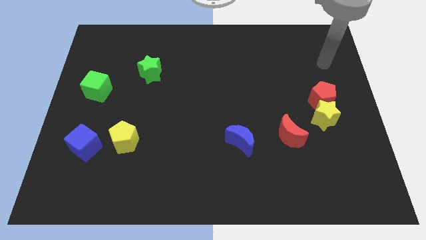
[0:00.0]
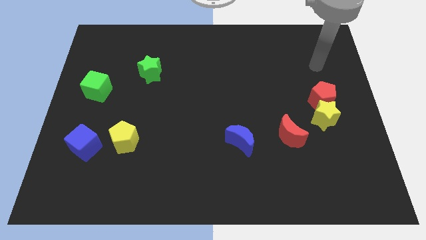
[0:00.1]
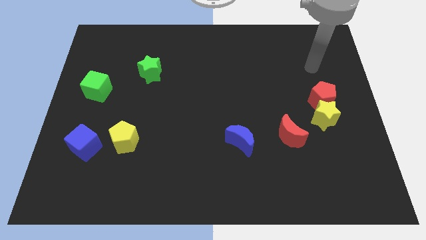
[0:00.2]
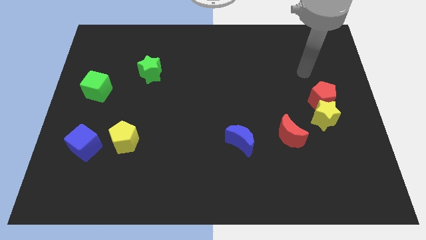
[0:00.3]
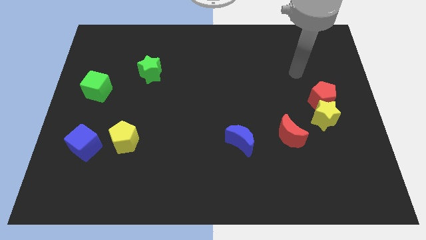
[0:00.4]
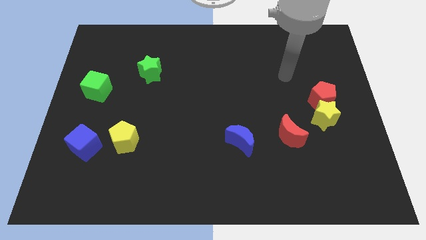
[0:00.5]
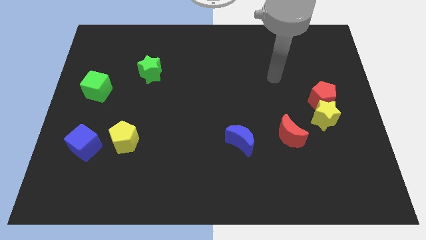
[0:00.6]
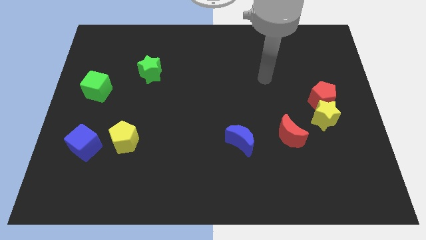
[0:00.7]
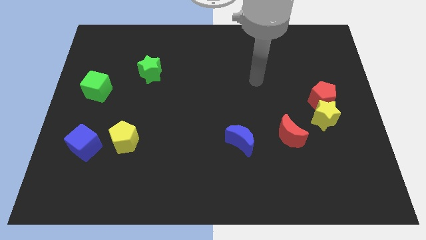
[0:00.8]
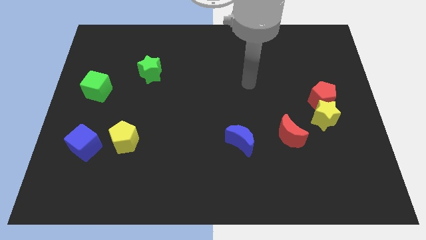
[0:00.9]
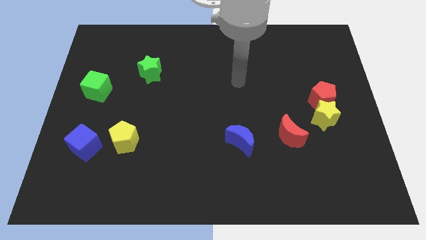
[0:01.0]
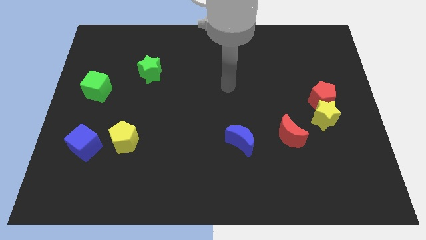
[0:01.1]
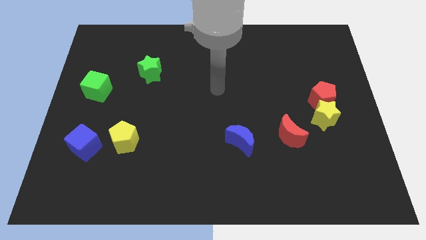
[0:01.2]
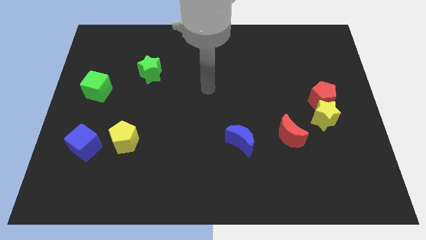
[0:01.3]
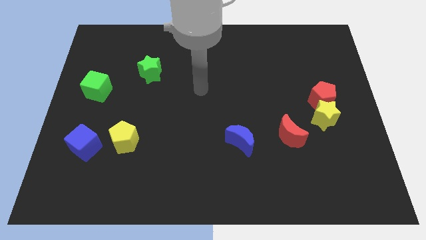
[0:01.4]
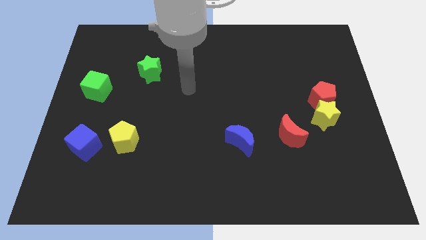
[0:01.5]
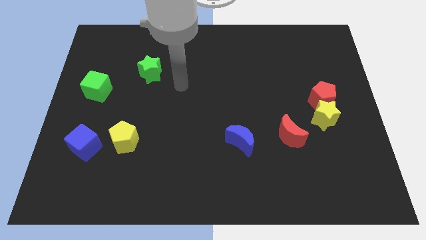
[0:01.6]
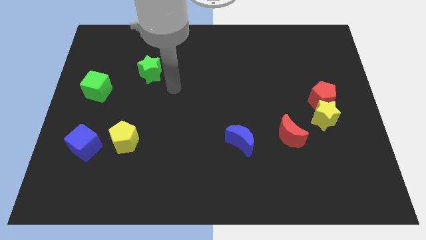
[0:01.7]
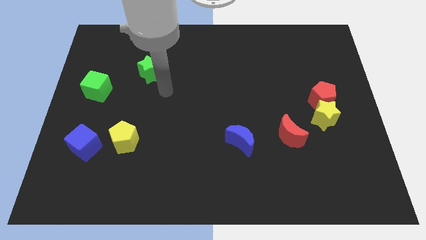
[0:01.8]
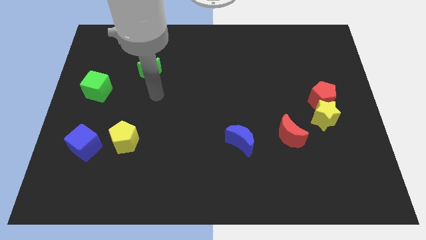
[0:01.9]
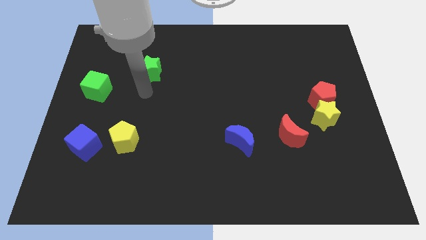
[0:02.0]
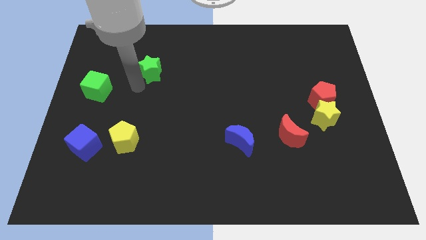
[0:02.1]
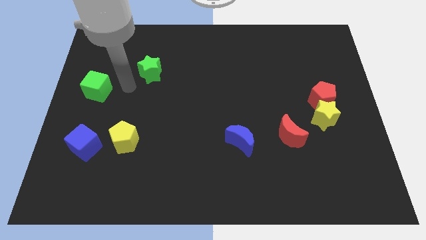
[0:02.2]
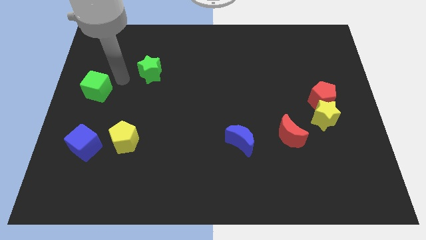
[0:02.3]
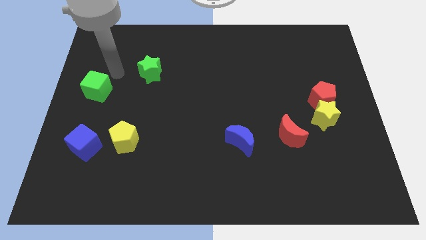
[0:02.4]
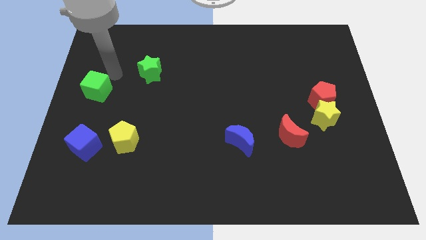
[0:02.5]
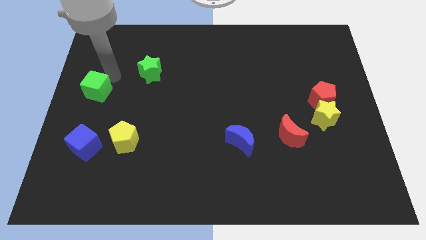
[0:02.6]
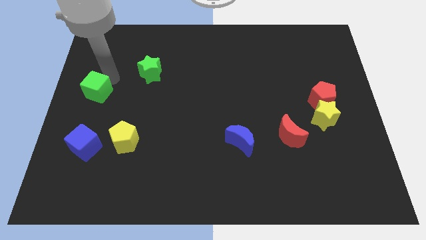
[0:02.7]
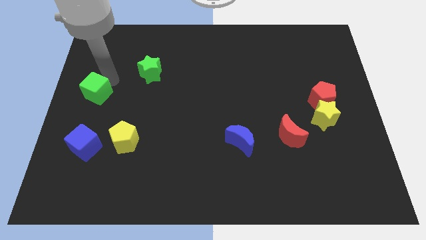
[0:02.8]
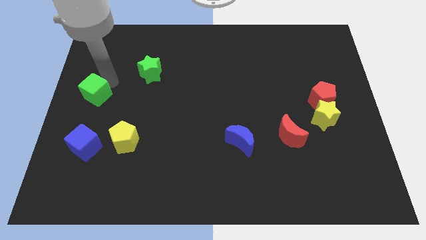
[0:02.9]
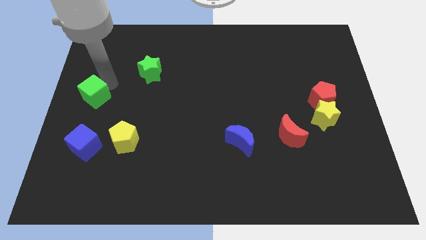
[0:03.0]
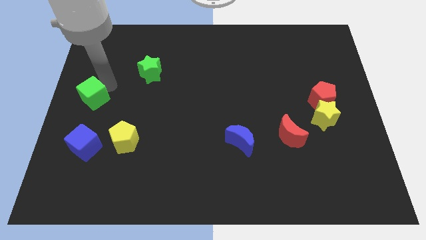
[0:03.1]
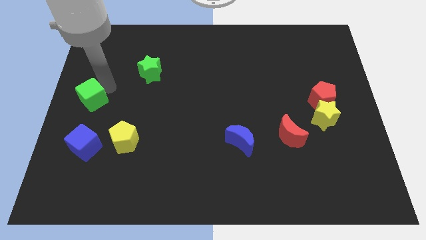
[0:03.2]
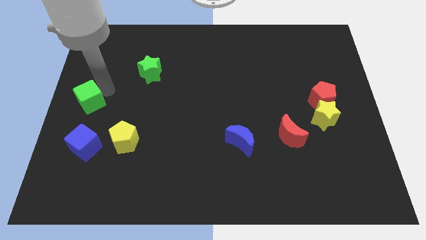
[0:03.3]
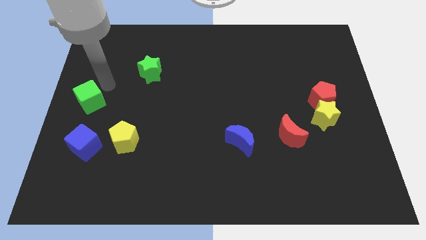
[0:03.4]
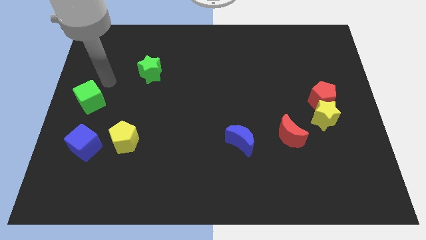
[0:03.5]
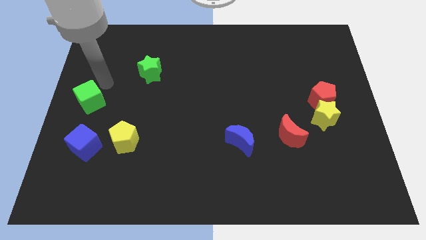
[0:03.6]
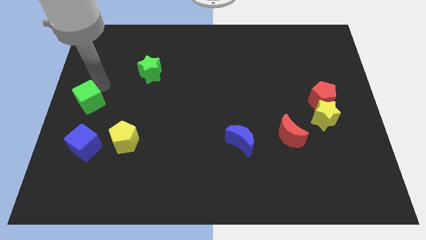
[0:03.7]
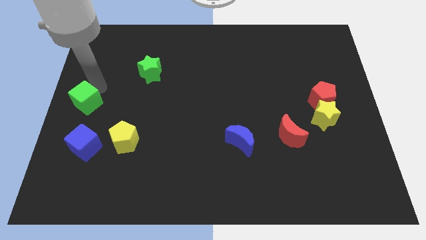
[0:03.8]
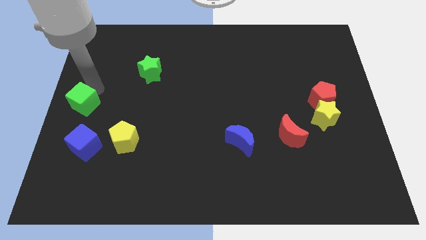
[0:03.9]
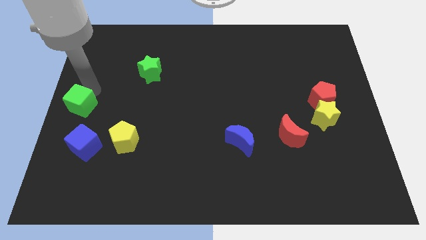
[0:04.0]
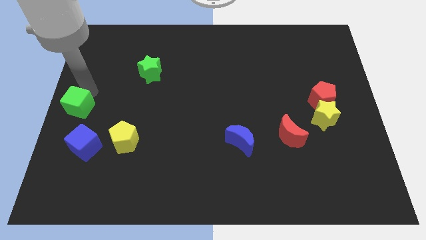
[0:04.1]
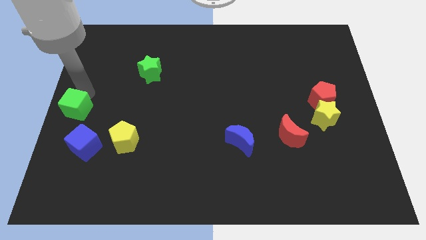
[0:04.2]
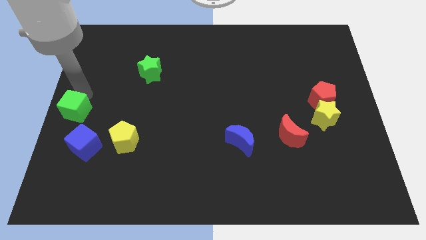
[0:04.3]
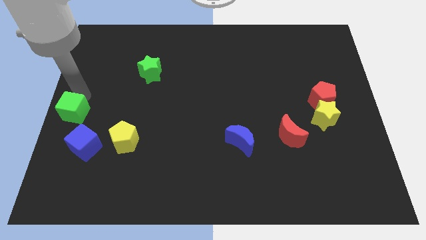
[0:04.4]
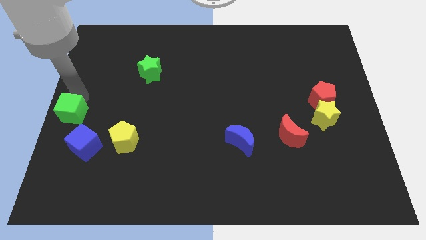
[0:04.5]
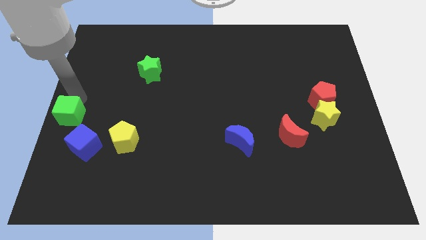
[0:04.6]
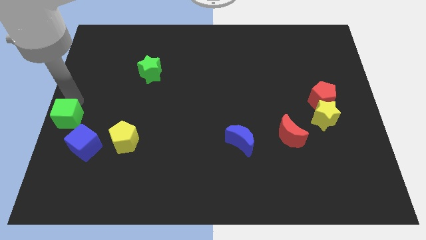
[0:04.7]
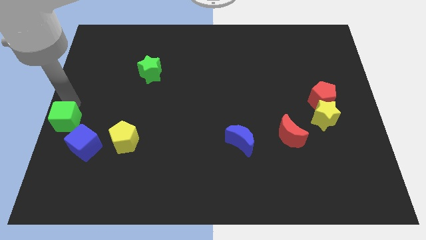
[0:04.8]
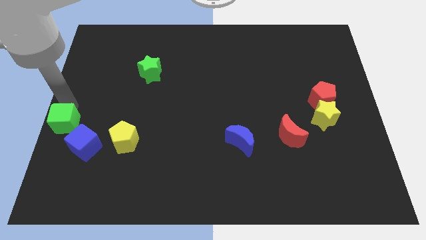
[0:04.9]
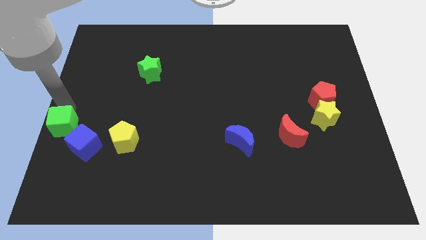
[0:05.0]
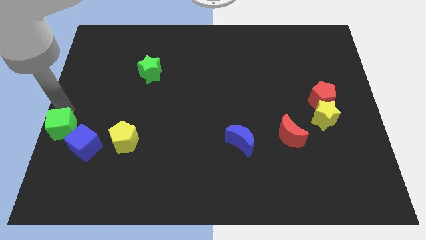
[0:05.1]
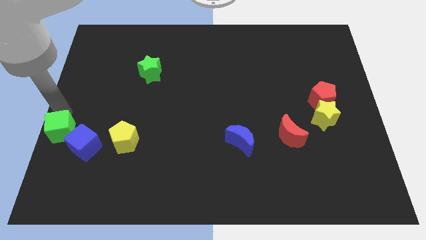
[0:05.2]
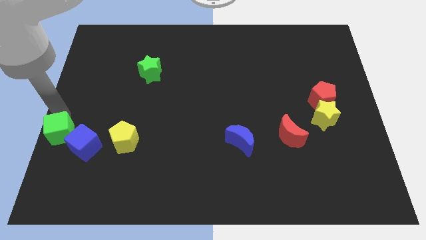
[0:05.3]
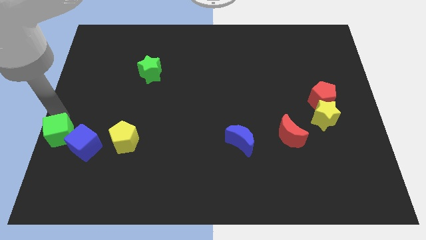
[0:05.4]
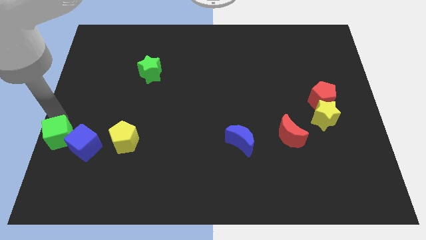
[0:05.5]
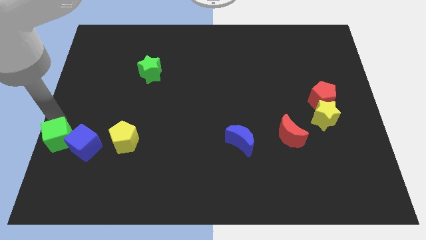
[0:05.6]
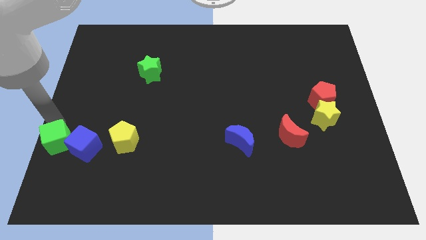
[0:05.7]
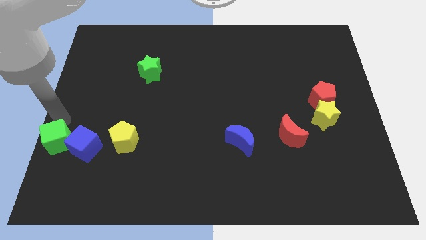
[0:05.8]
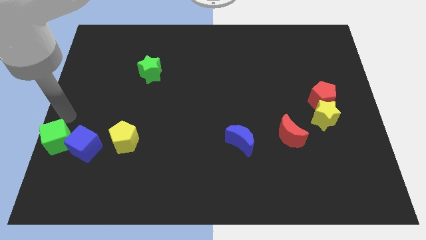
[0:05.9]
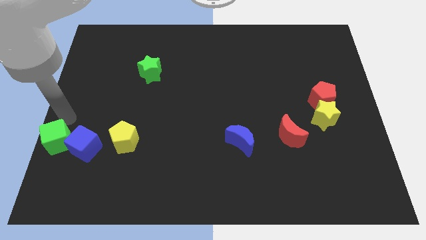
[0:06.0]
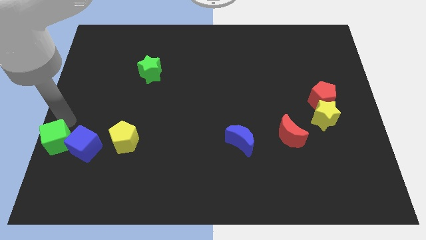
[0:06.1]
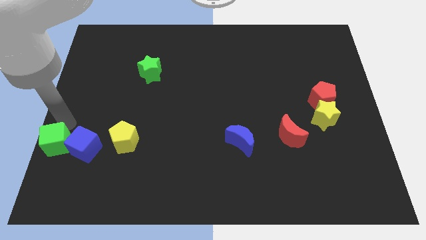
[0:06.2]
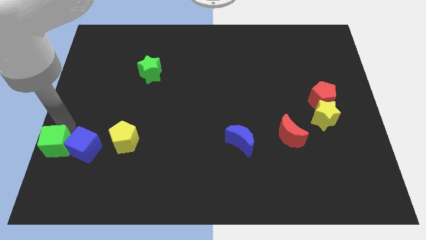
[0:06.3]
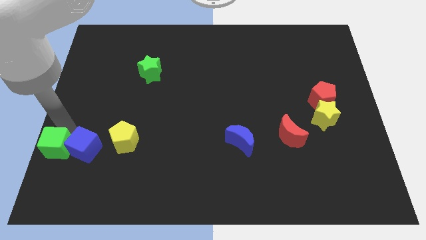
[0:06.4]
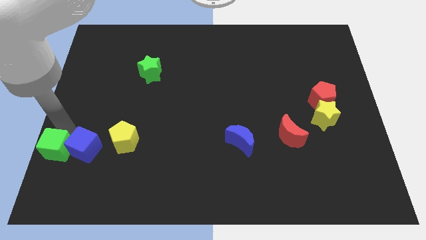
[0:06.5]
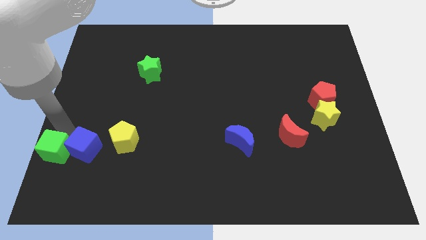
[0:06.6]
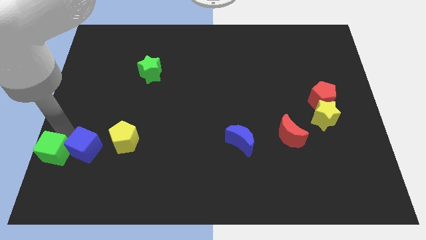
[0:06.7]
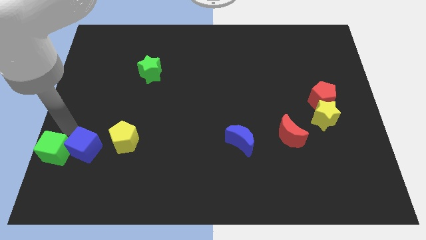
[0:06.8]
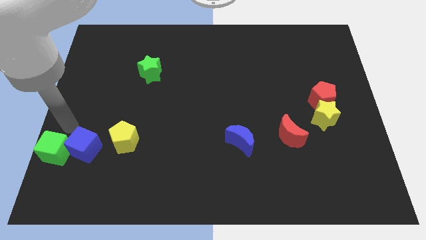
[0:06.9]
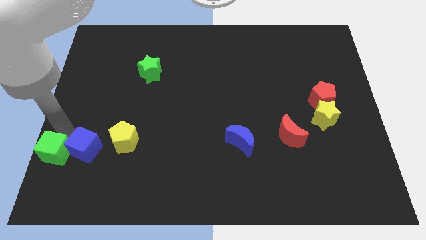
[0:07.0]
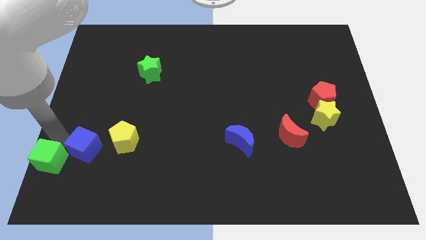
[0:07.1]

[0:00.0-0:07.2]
slide the green cube to the bottom left
